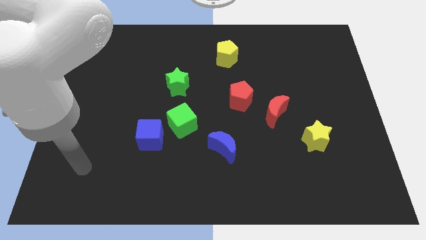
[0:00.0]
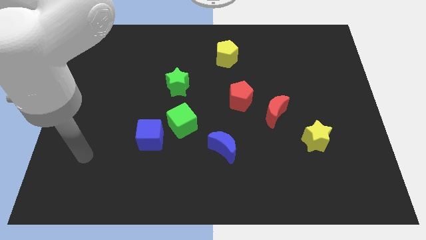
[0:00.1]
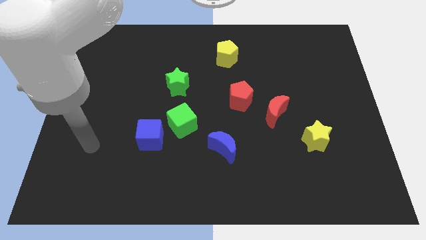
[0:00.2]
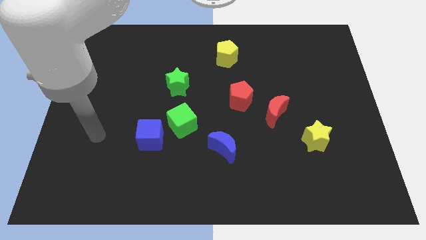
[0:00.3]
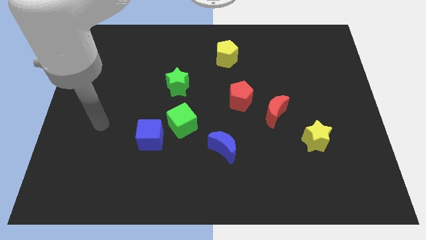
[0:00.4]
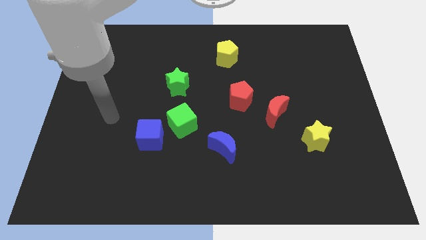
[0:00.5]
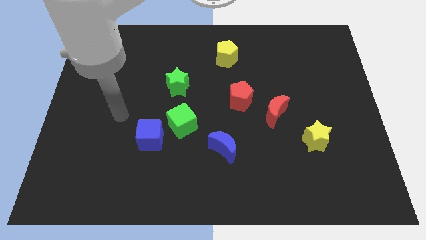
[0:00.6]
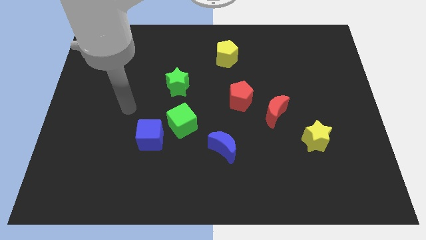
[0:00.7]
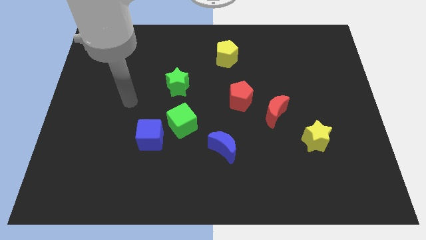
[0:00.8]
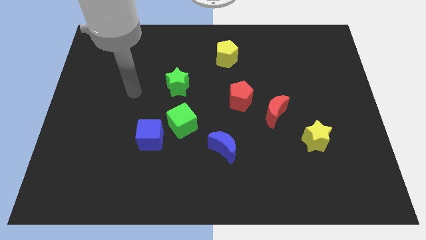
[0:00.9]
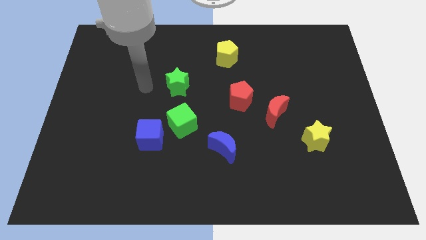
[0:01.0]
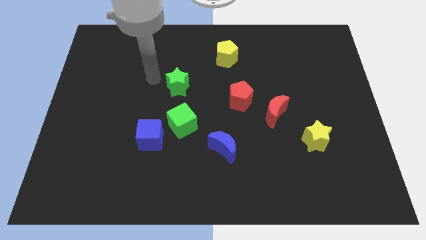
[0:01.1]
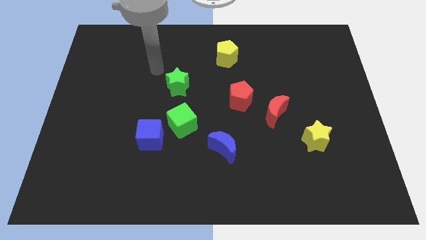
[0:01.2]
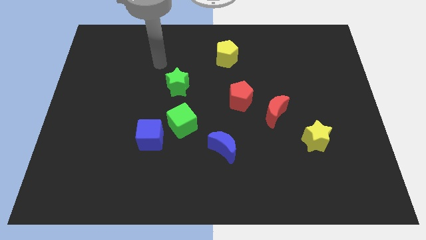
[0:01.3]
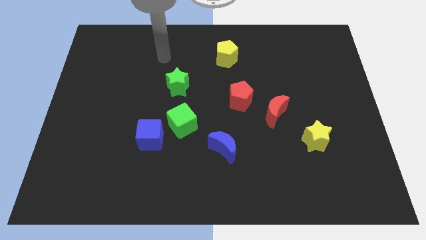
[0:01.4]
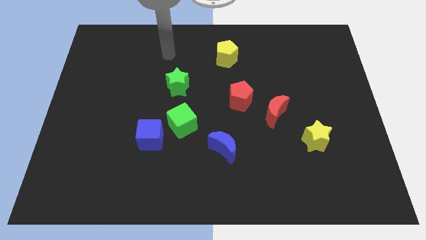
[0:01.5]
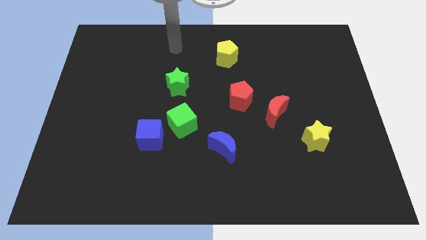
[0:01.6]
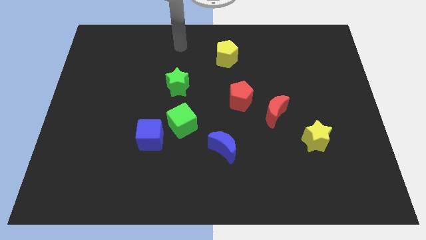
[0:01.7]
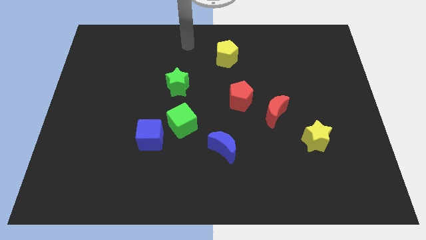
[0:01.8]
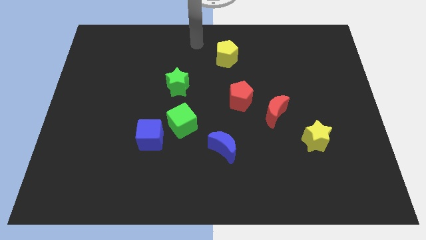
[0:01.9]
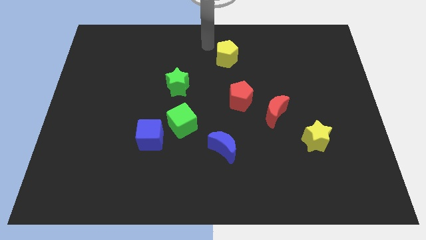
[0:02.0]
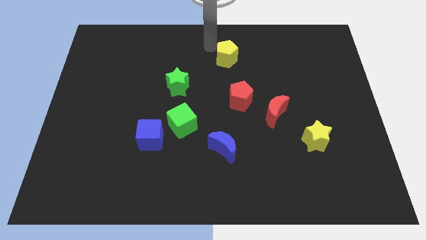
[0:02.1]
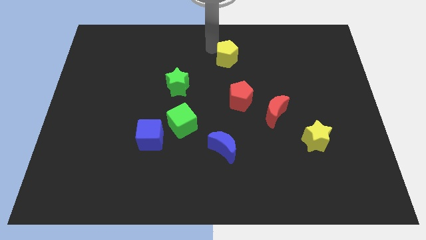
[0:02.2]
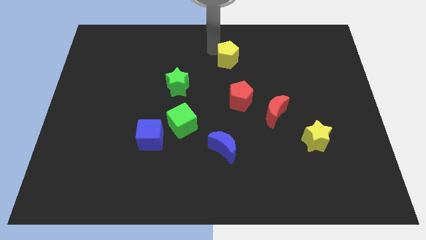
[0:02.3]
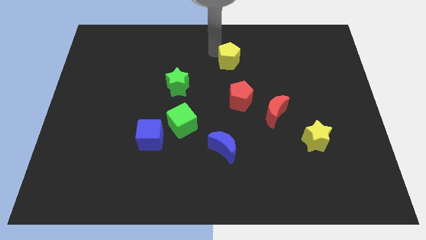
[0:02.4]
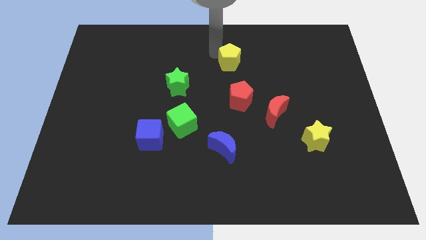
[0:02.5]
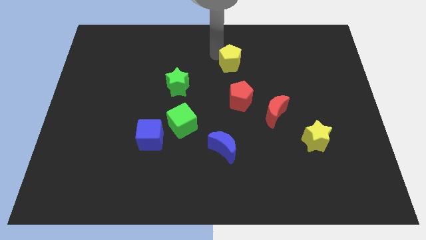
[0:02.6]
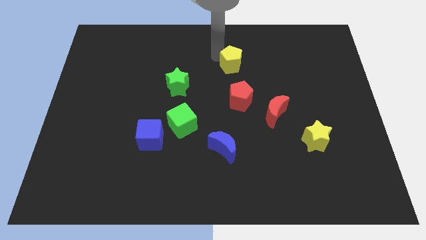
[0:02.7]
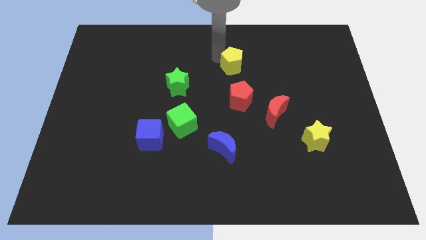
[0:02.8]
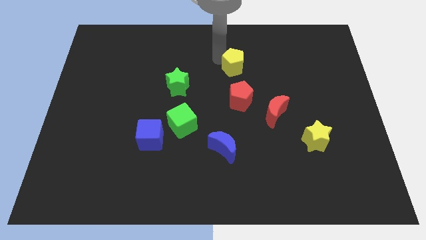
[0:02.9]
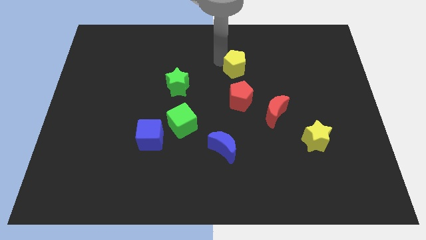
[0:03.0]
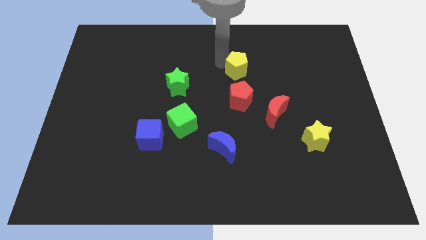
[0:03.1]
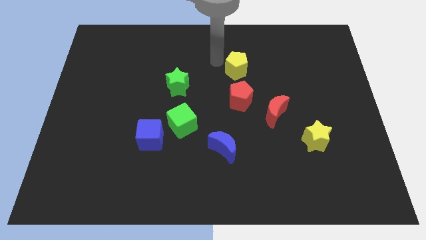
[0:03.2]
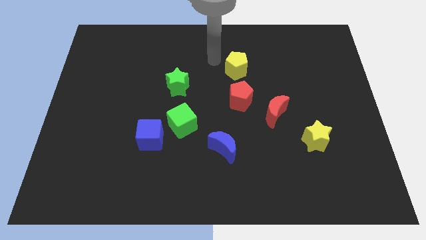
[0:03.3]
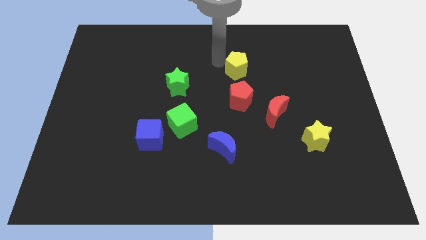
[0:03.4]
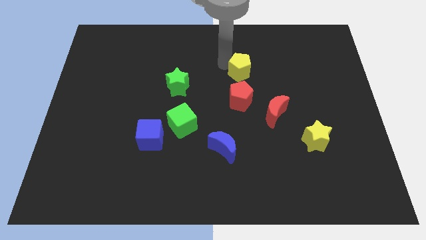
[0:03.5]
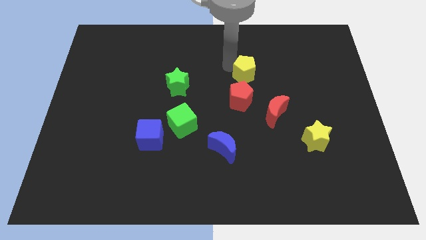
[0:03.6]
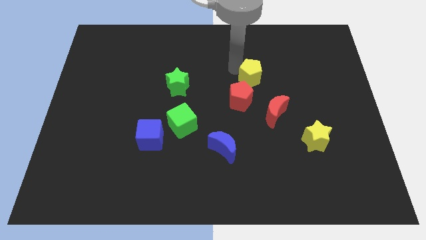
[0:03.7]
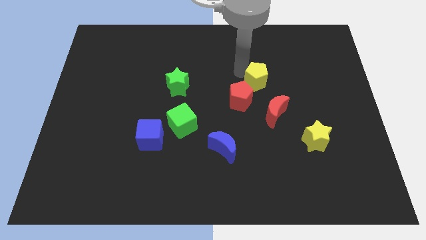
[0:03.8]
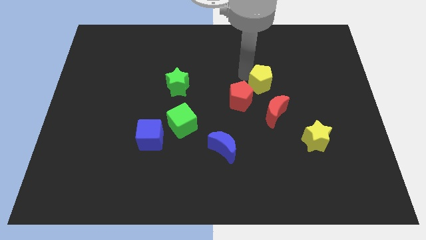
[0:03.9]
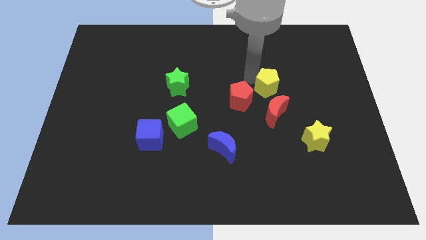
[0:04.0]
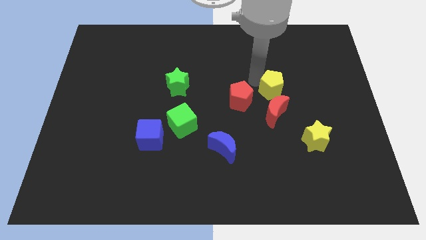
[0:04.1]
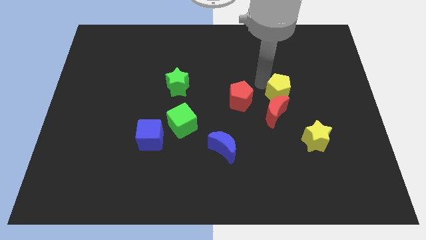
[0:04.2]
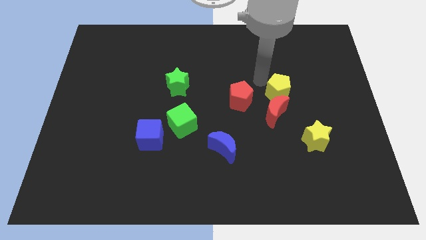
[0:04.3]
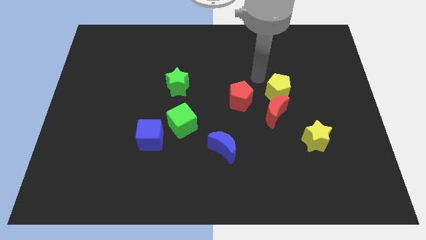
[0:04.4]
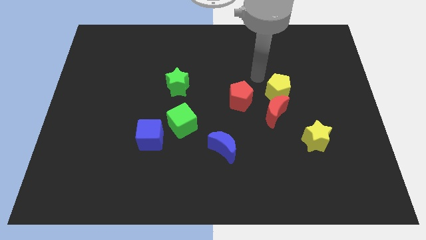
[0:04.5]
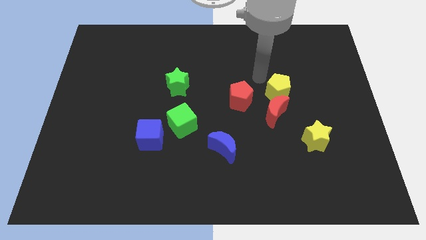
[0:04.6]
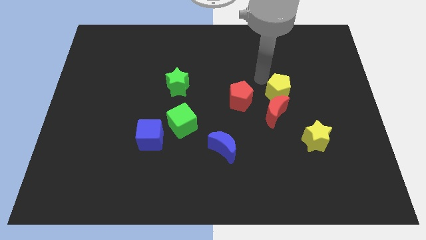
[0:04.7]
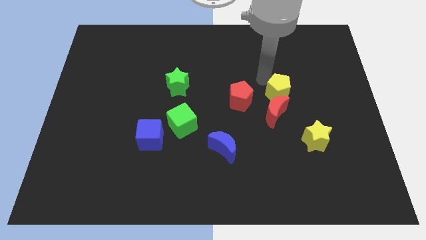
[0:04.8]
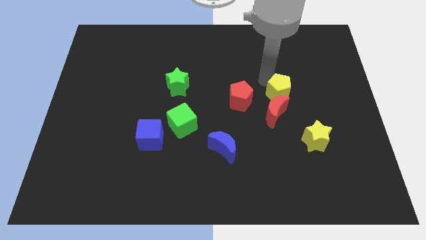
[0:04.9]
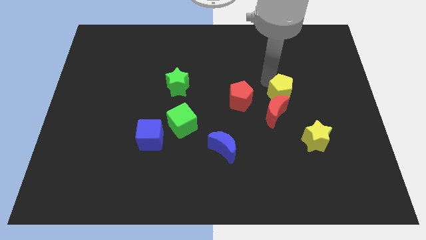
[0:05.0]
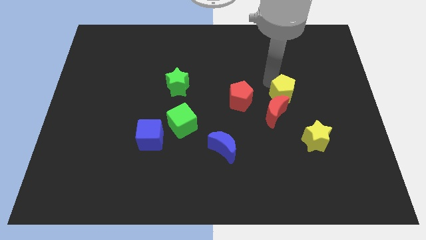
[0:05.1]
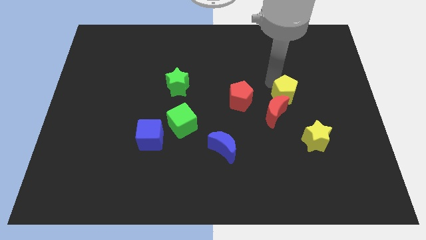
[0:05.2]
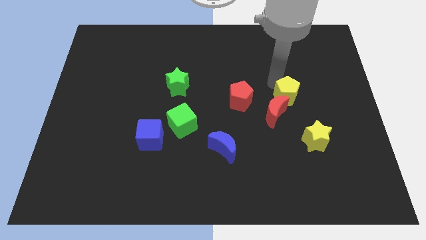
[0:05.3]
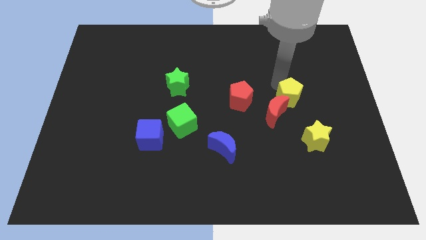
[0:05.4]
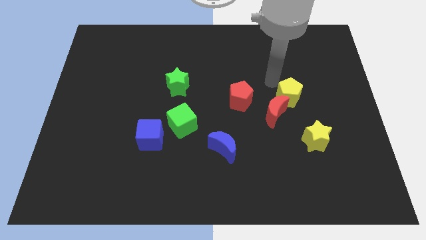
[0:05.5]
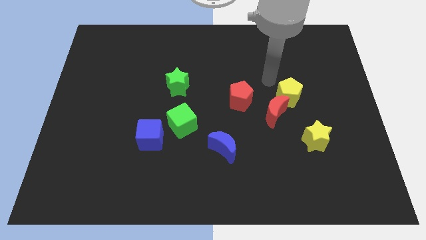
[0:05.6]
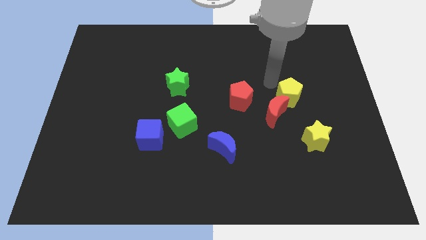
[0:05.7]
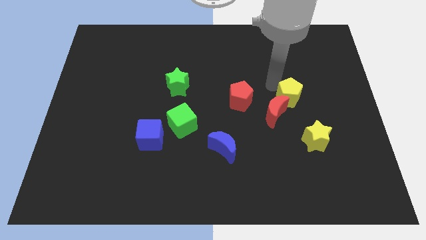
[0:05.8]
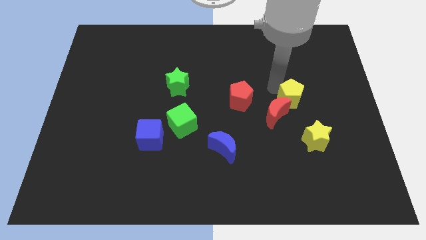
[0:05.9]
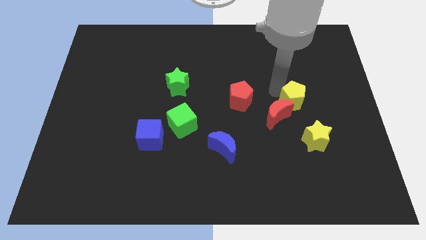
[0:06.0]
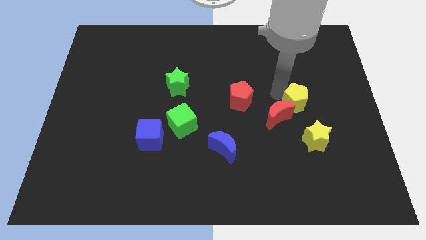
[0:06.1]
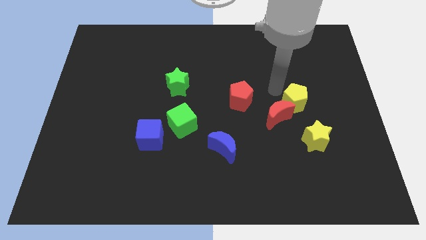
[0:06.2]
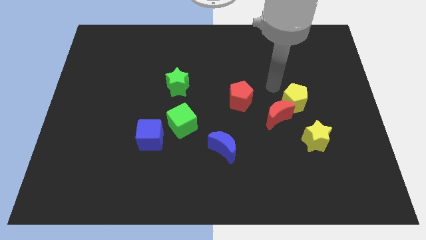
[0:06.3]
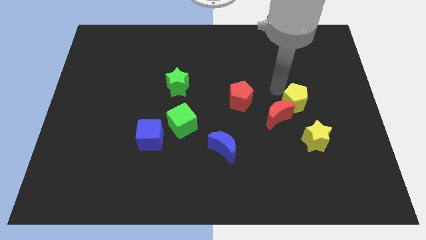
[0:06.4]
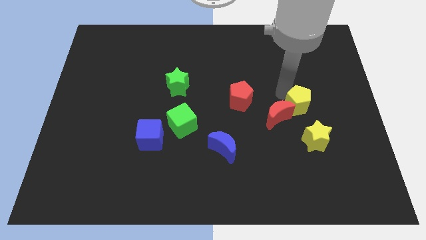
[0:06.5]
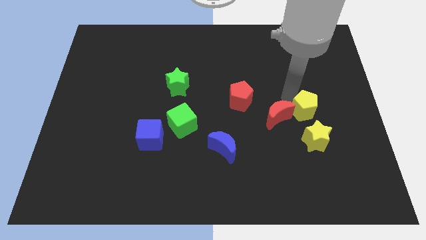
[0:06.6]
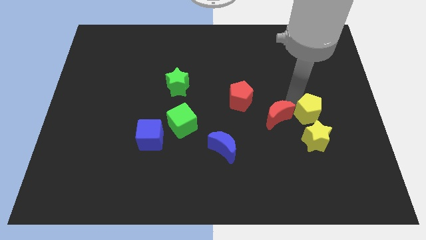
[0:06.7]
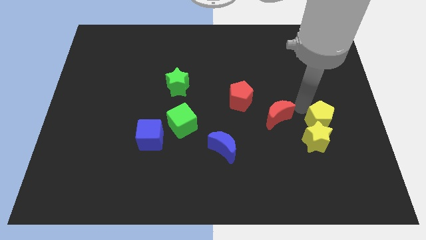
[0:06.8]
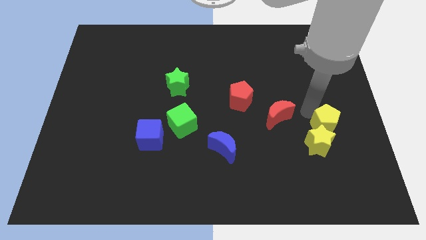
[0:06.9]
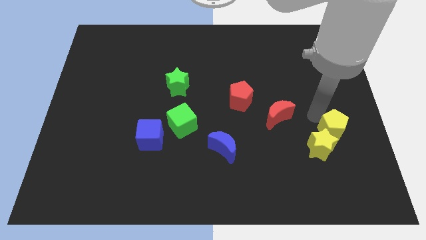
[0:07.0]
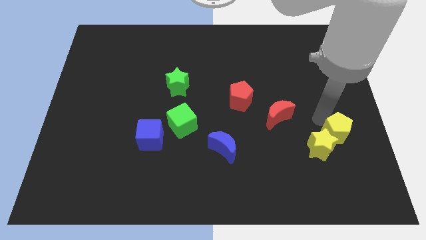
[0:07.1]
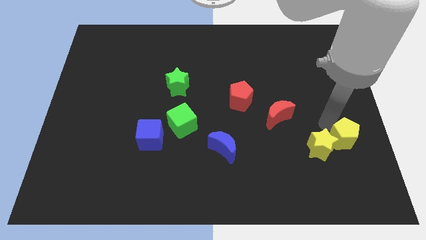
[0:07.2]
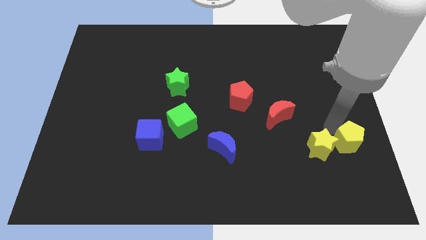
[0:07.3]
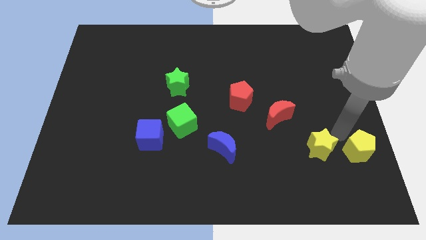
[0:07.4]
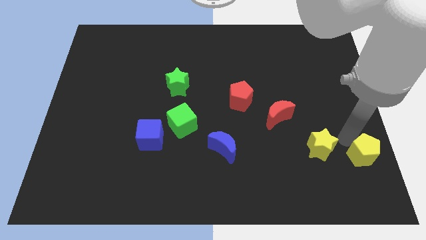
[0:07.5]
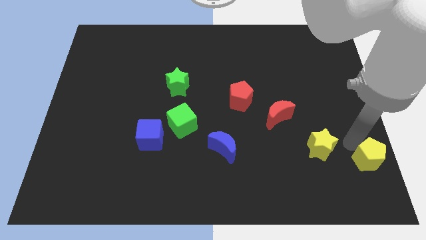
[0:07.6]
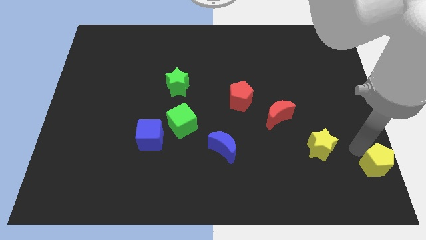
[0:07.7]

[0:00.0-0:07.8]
push the yellow pentagon to the bottom right corner
